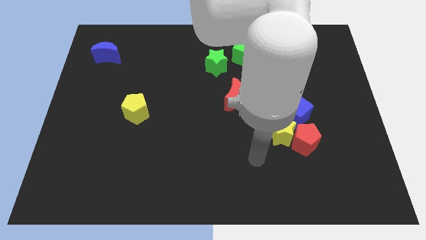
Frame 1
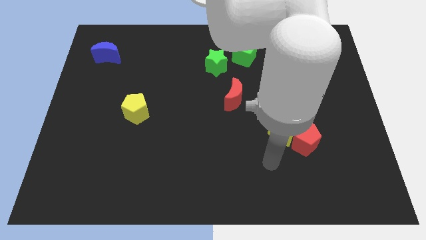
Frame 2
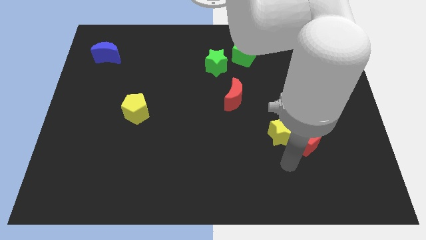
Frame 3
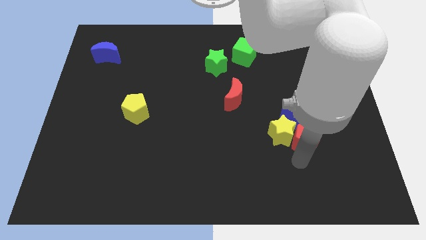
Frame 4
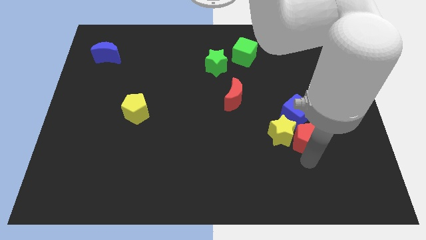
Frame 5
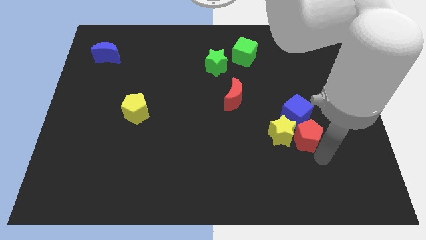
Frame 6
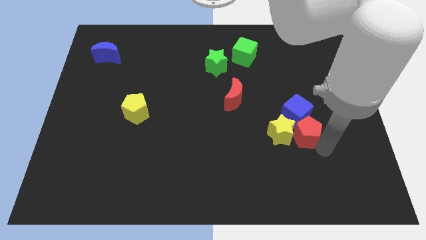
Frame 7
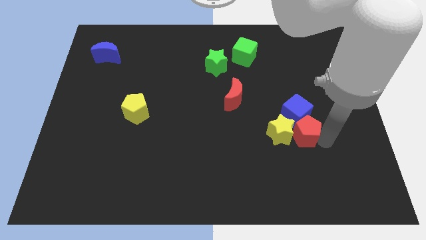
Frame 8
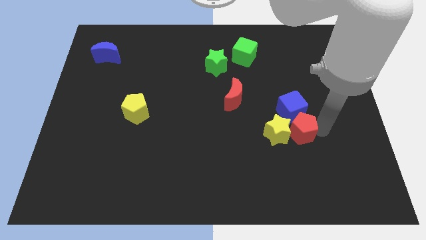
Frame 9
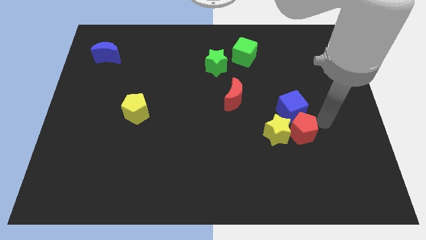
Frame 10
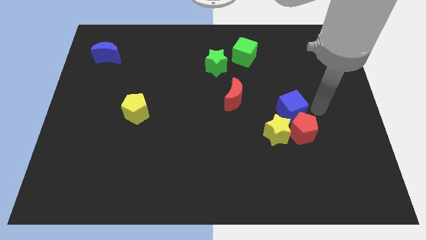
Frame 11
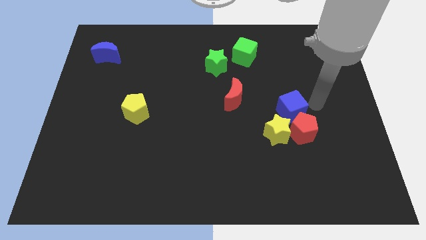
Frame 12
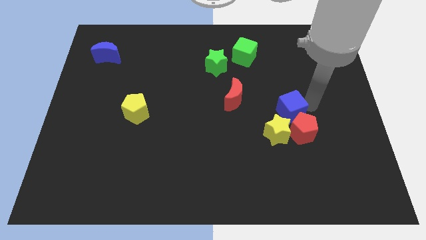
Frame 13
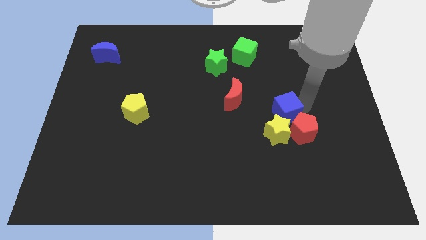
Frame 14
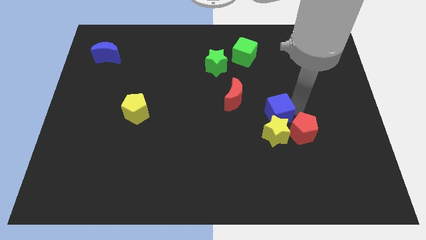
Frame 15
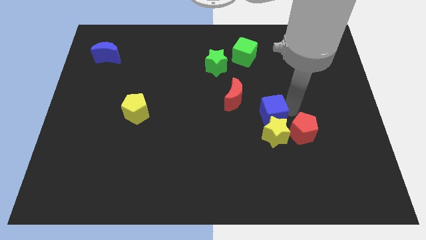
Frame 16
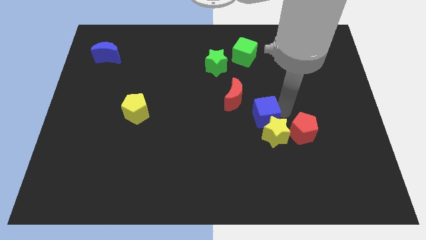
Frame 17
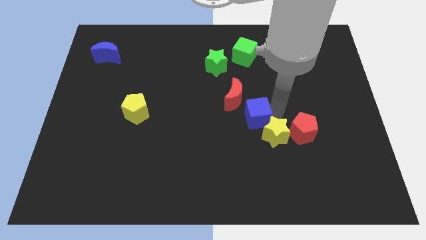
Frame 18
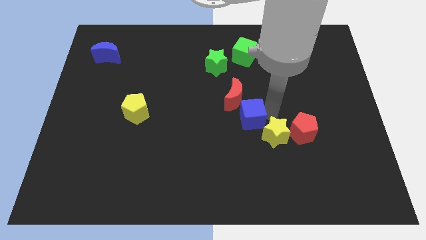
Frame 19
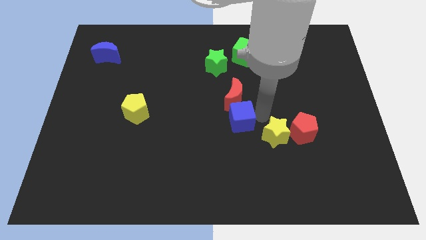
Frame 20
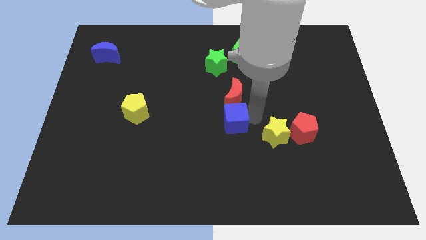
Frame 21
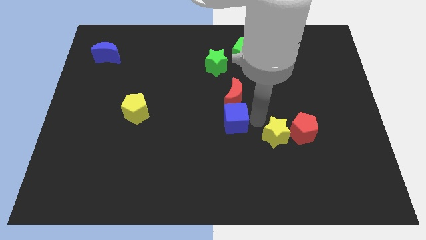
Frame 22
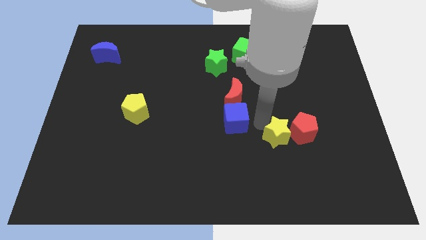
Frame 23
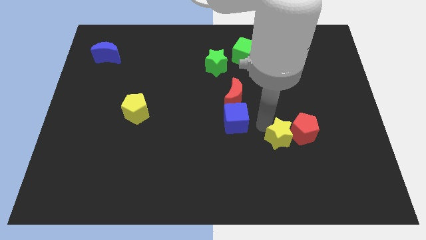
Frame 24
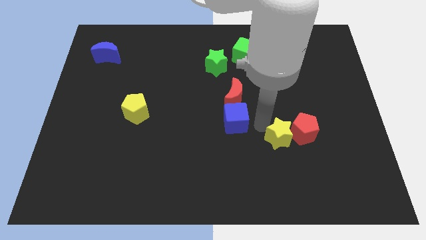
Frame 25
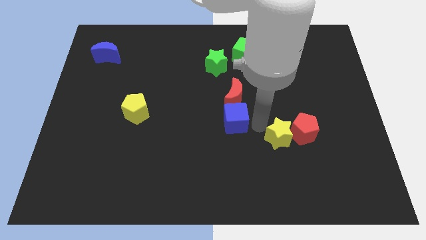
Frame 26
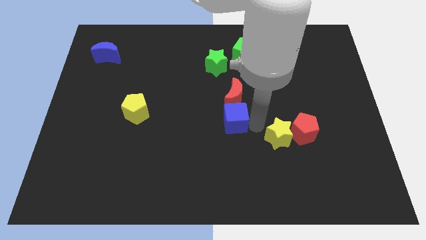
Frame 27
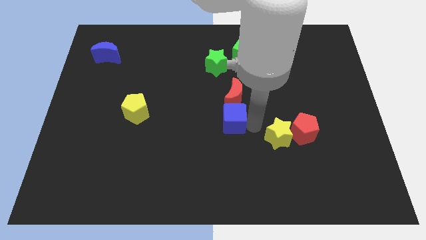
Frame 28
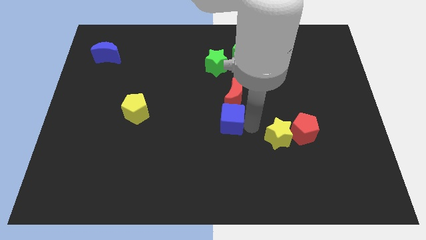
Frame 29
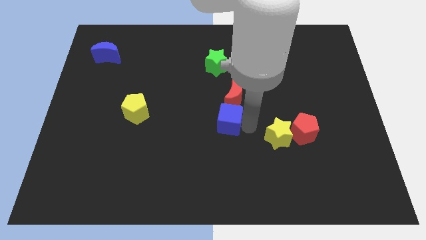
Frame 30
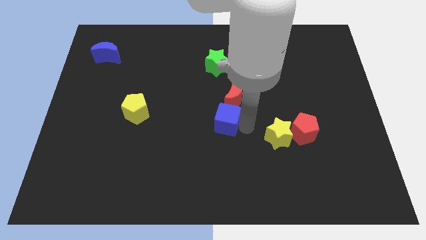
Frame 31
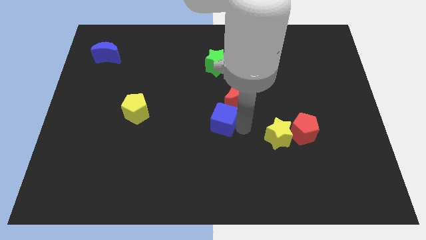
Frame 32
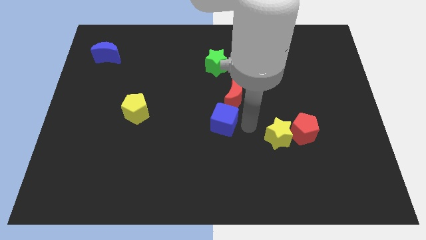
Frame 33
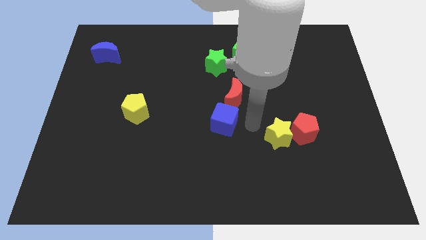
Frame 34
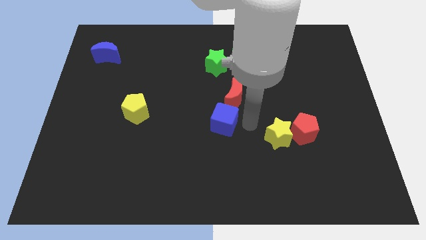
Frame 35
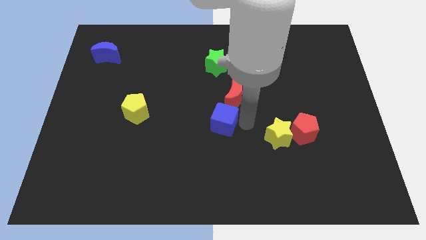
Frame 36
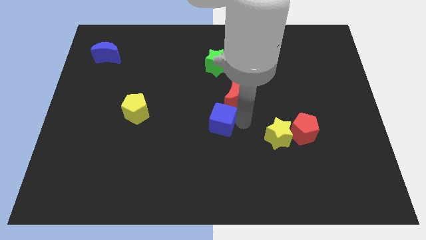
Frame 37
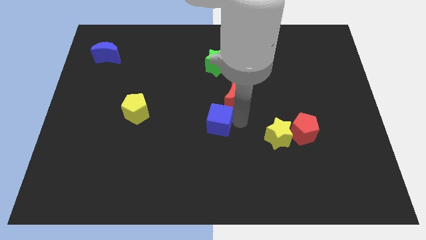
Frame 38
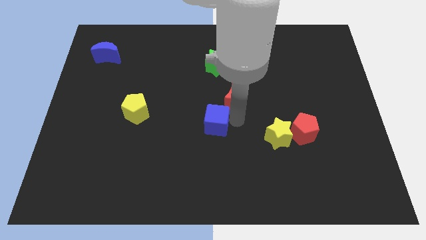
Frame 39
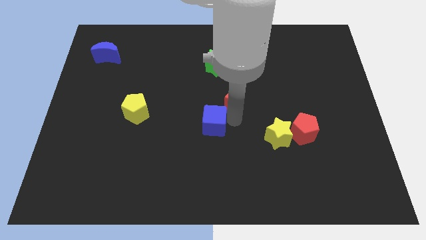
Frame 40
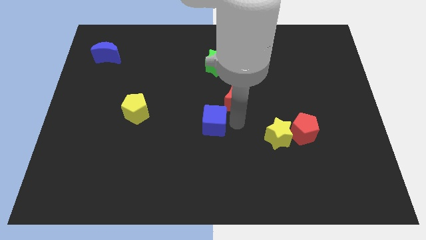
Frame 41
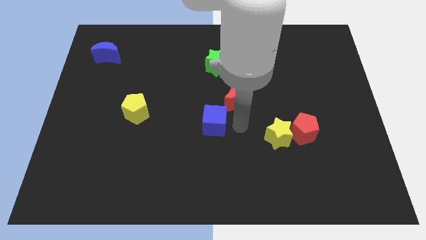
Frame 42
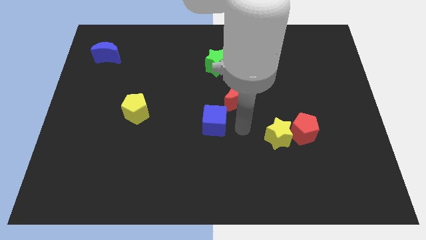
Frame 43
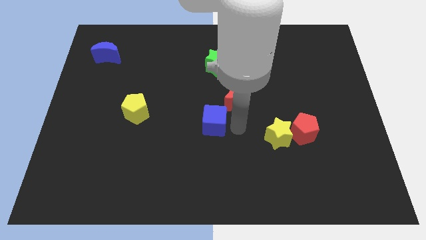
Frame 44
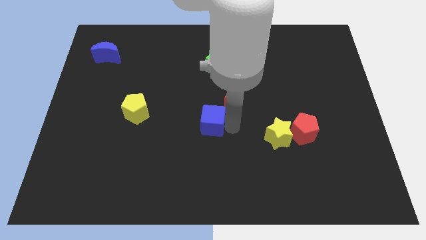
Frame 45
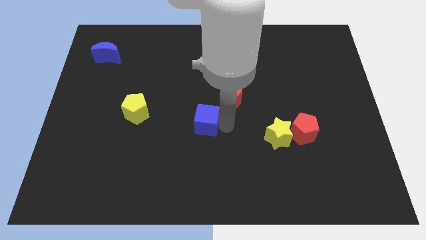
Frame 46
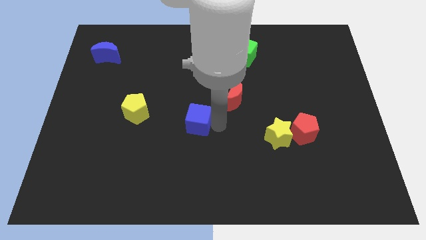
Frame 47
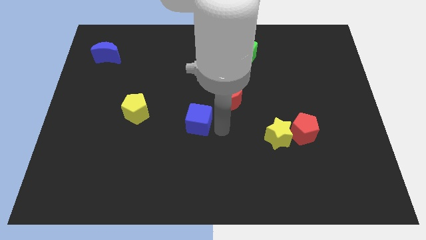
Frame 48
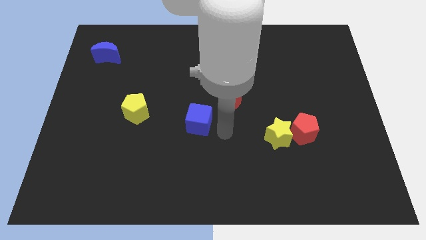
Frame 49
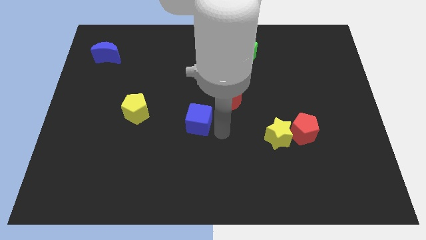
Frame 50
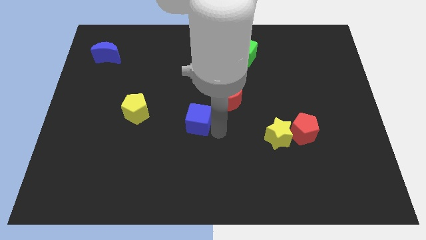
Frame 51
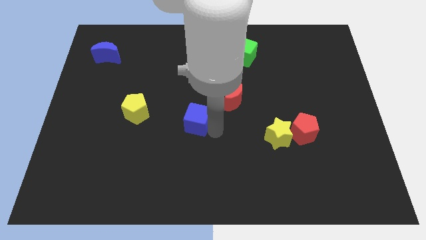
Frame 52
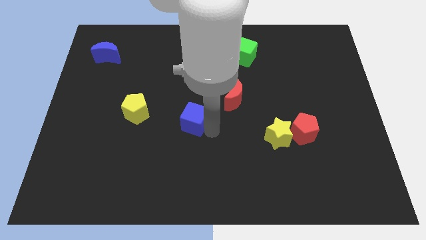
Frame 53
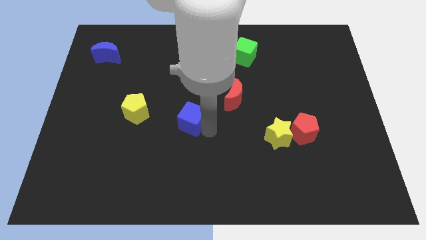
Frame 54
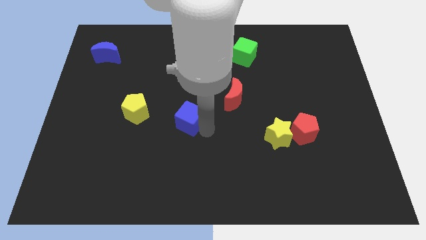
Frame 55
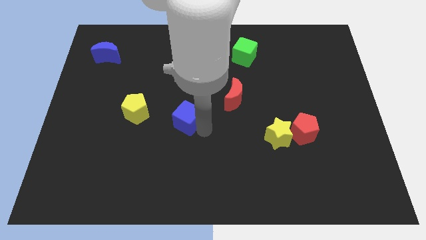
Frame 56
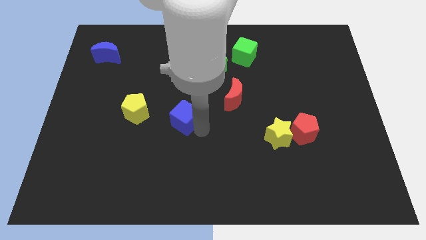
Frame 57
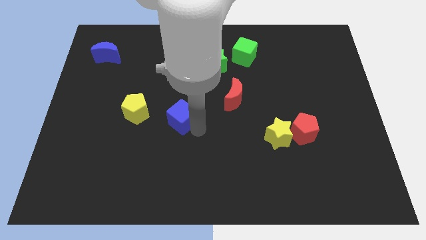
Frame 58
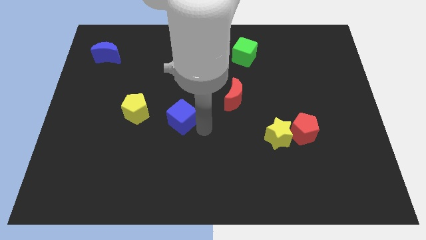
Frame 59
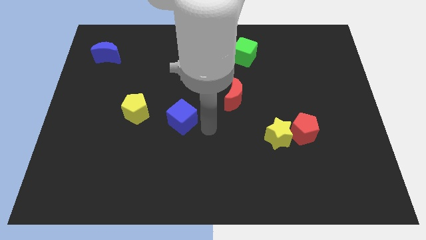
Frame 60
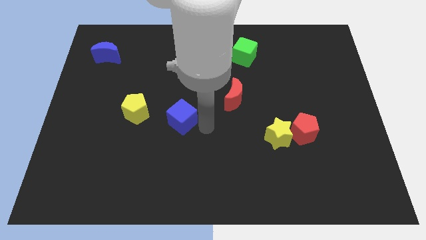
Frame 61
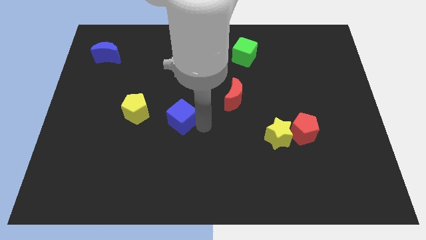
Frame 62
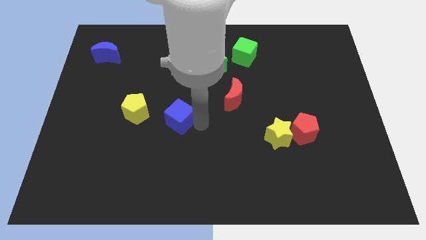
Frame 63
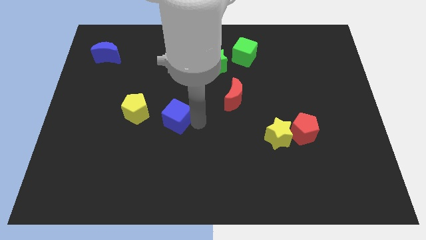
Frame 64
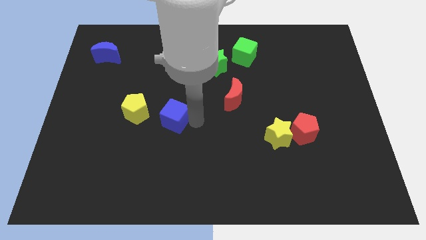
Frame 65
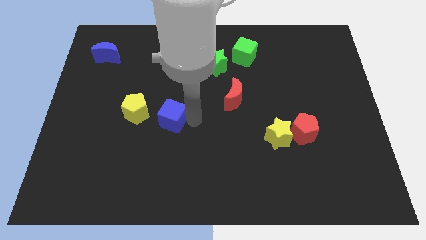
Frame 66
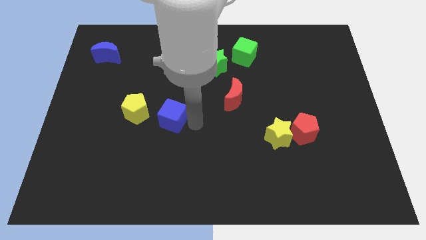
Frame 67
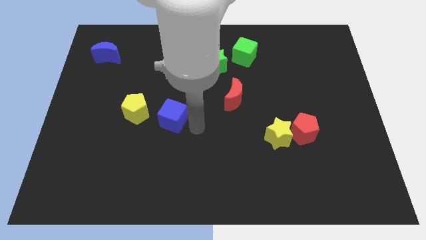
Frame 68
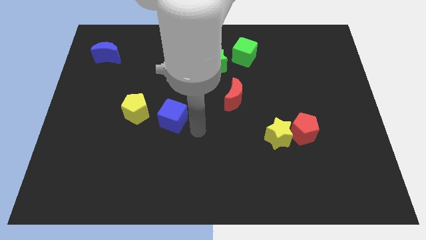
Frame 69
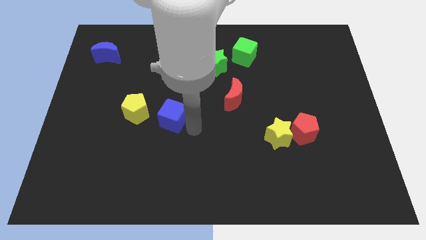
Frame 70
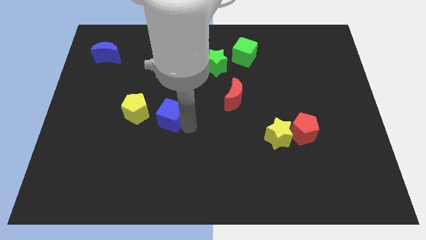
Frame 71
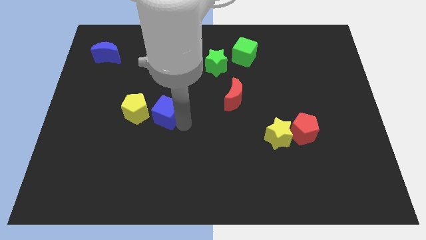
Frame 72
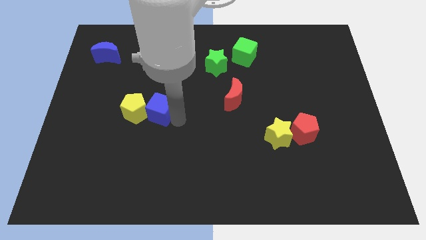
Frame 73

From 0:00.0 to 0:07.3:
slide the blue cube towards the yellow pentagon
